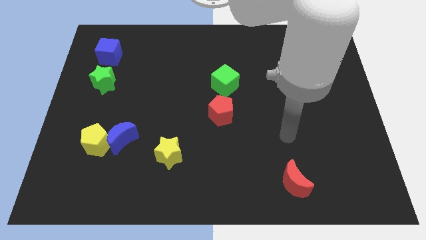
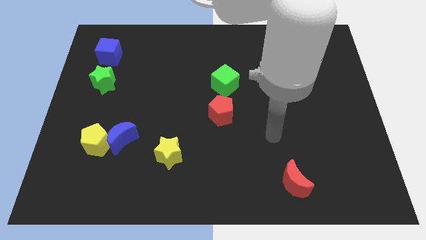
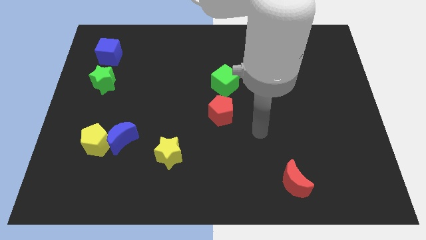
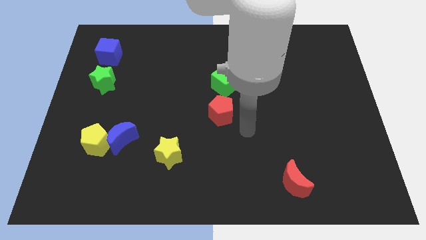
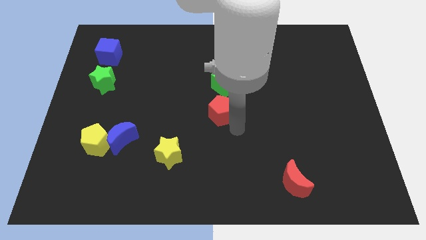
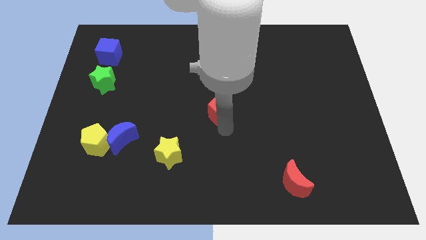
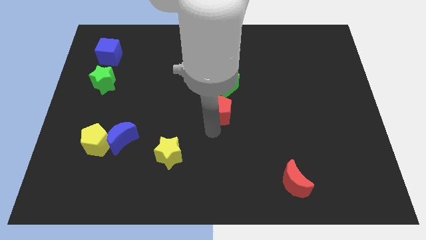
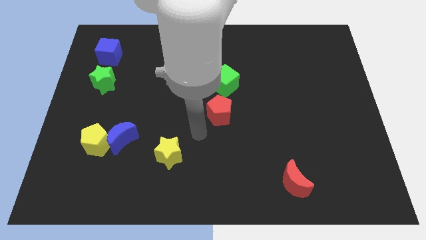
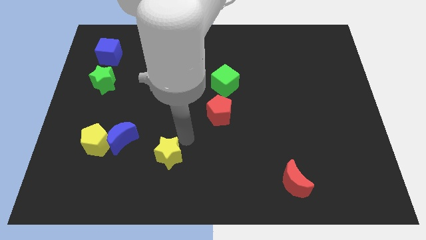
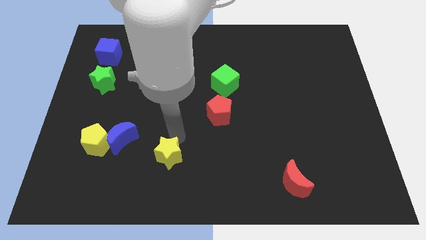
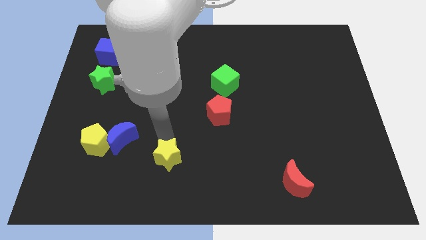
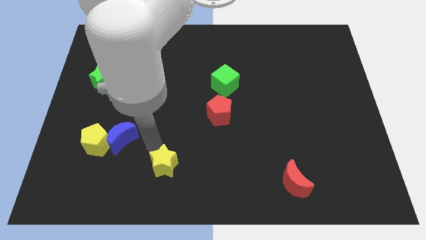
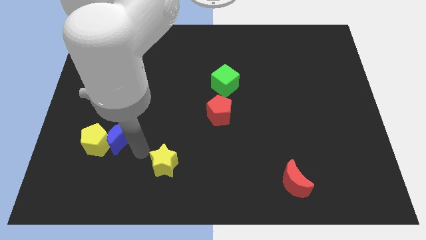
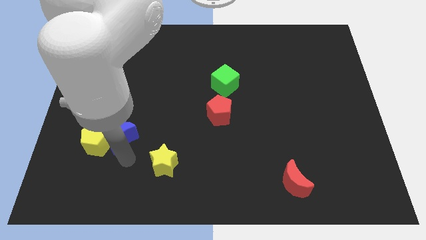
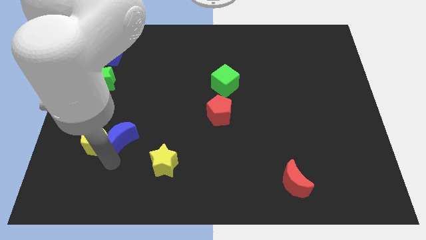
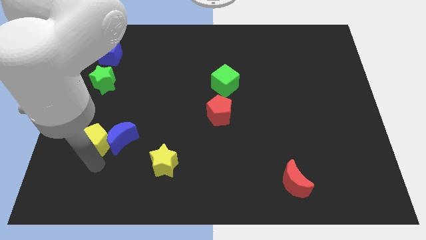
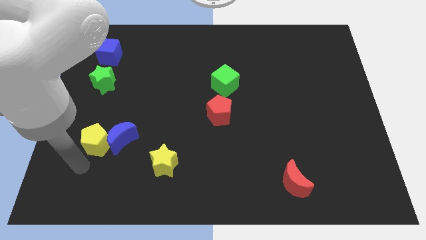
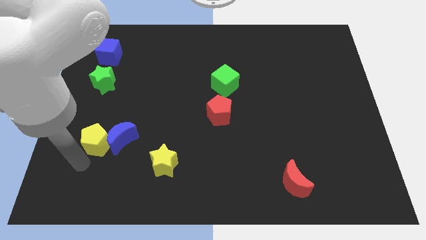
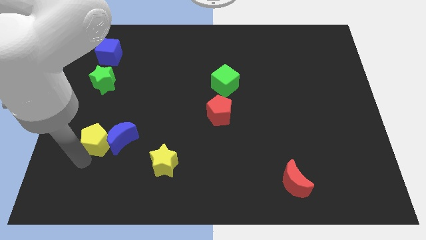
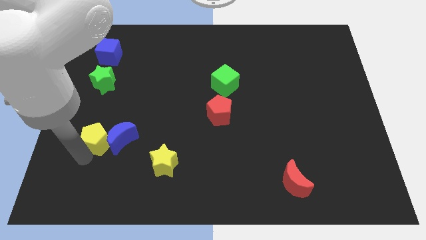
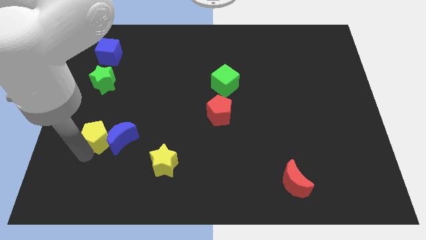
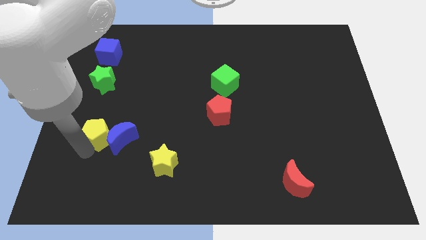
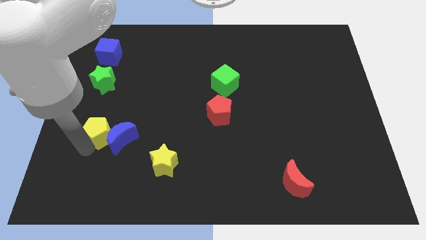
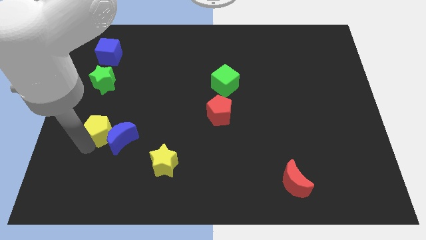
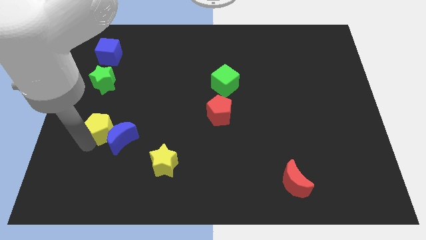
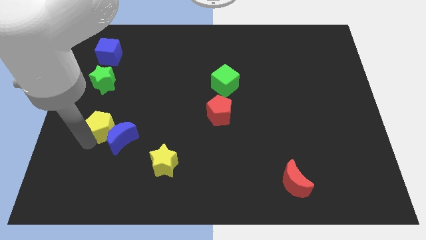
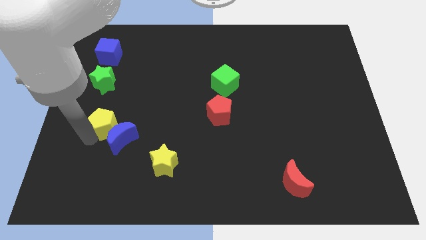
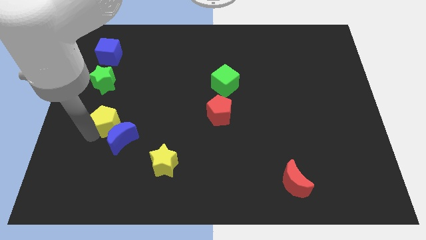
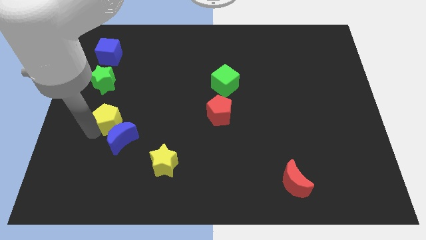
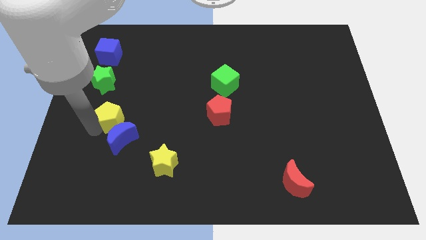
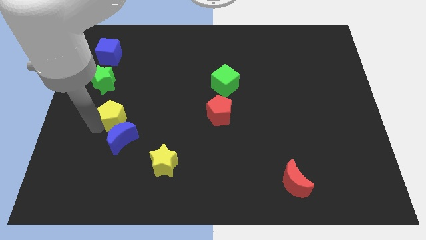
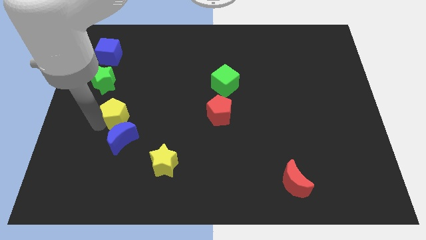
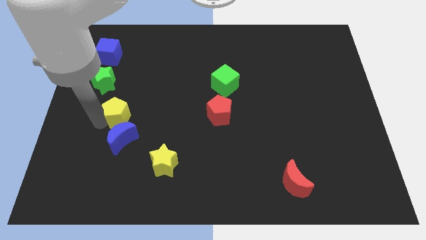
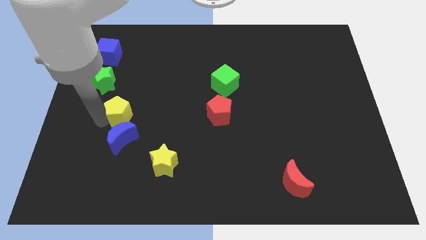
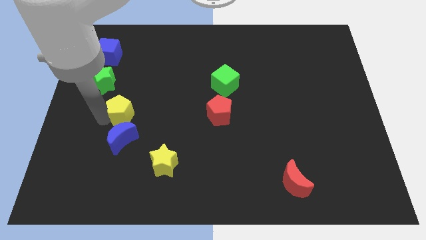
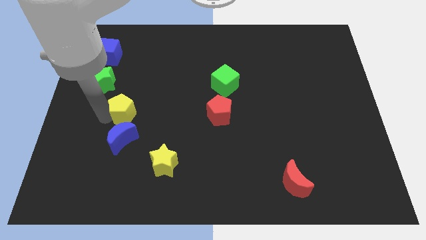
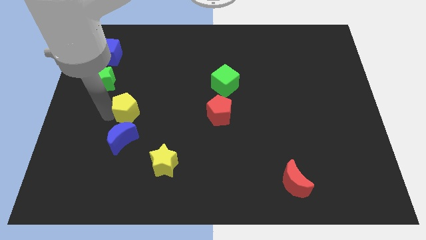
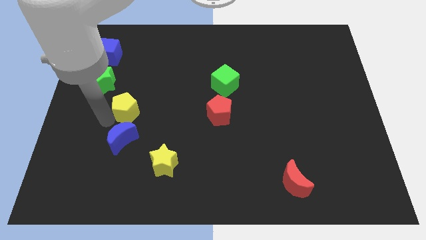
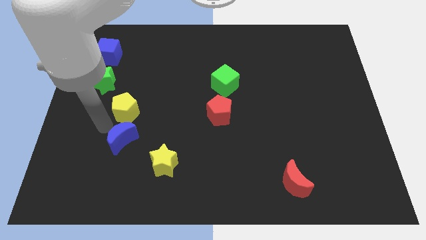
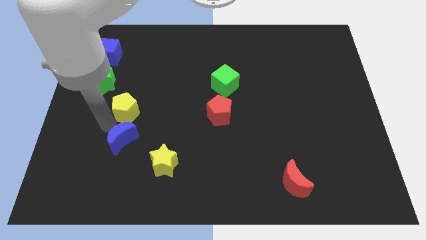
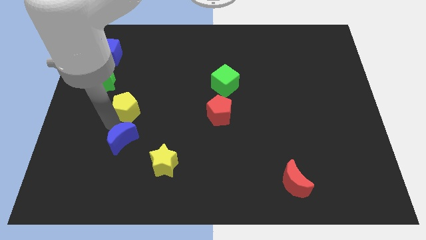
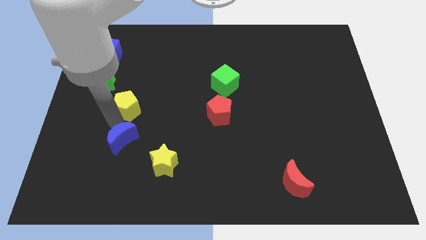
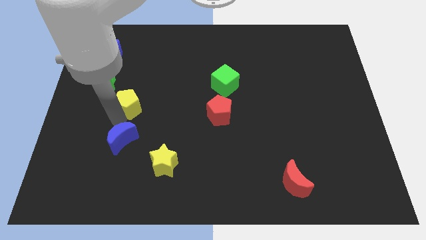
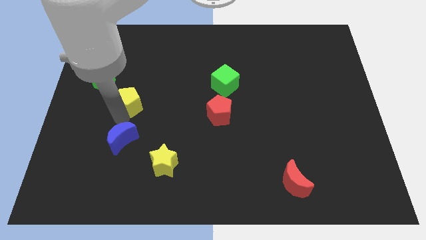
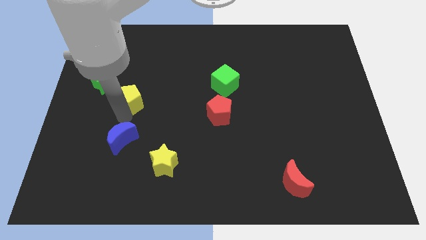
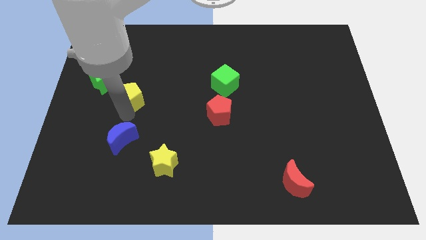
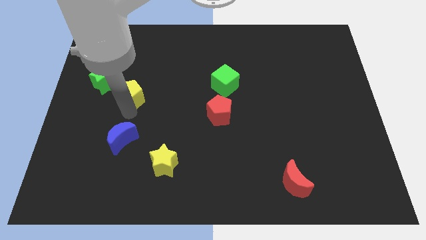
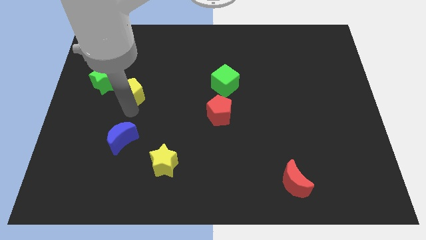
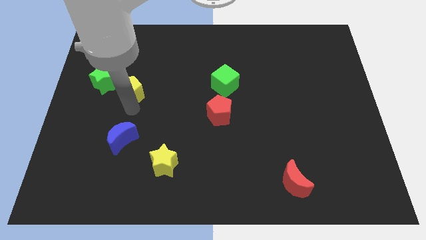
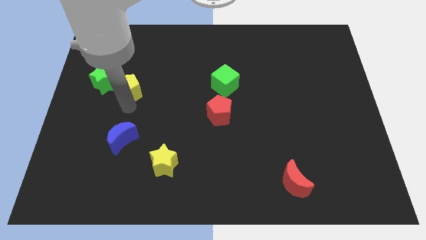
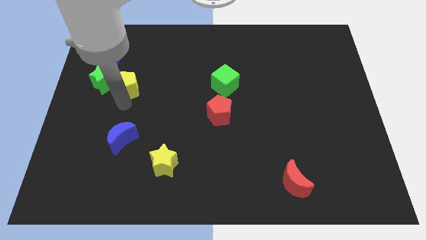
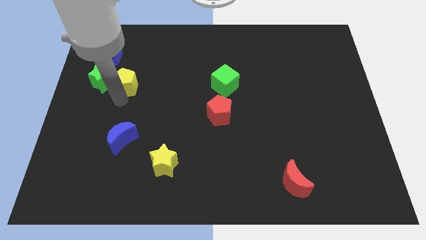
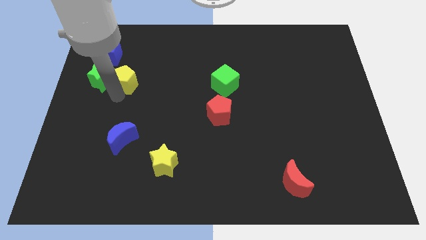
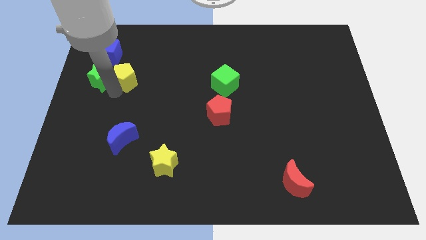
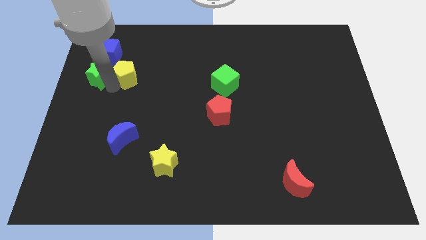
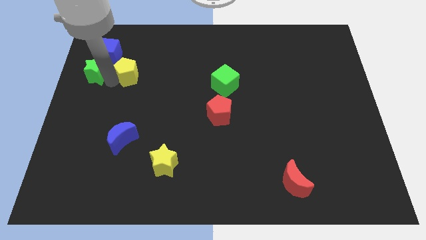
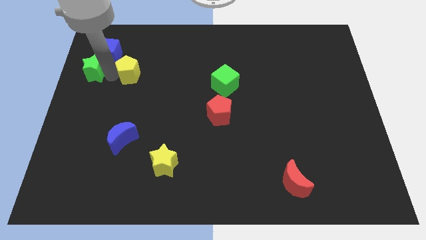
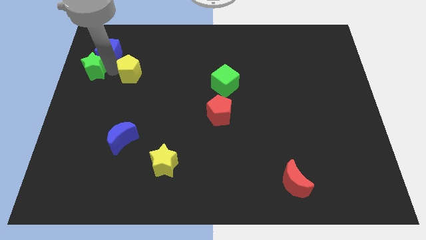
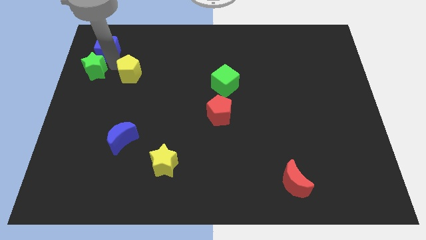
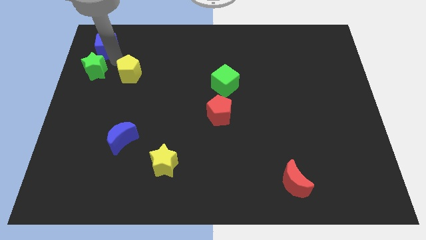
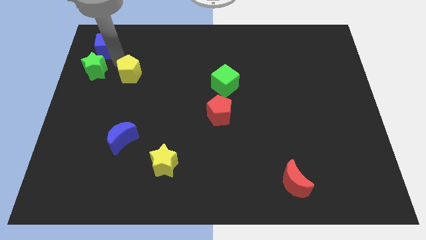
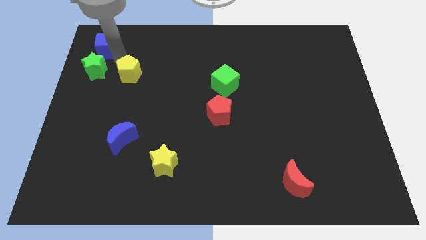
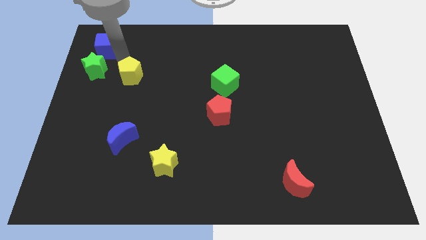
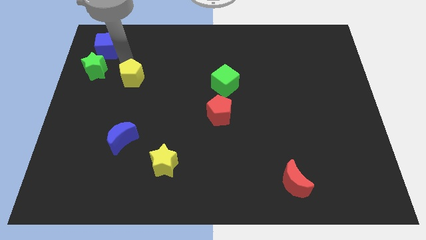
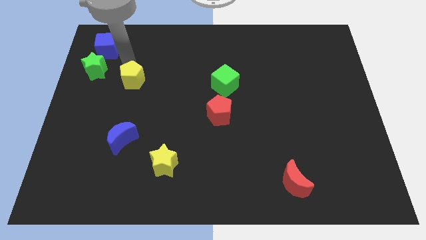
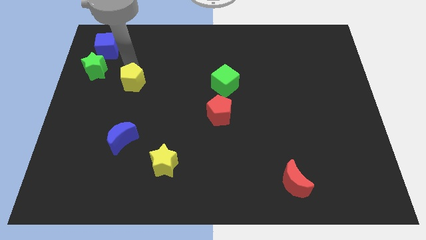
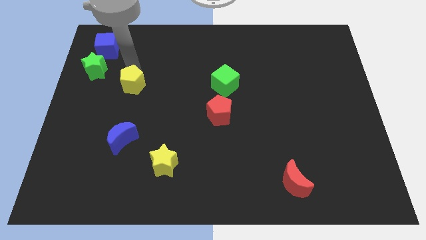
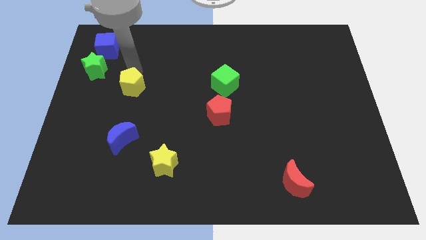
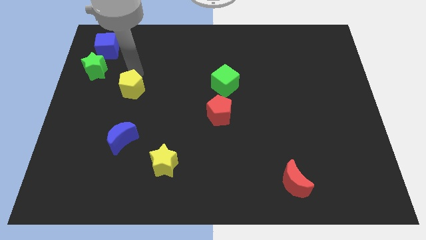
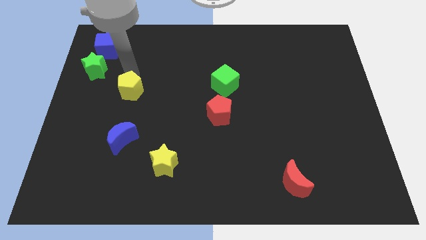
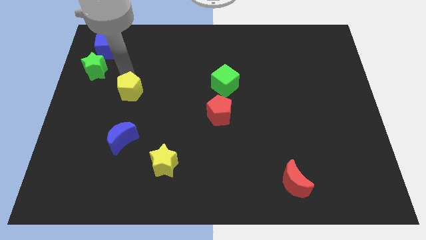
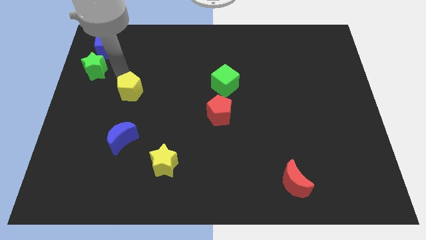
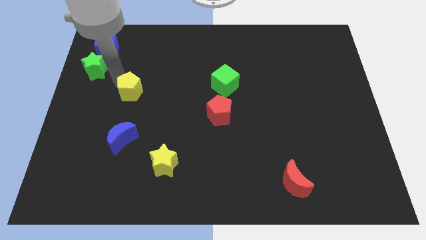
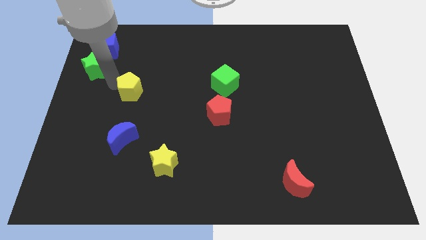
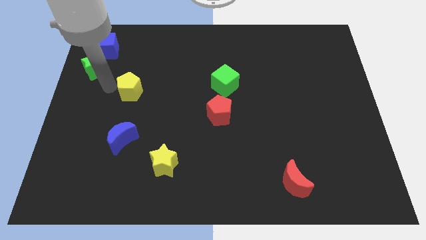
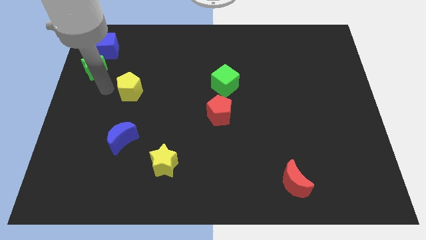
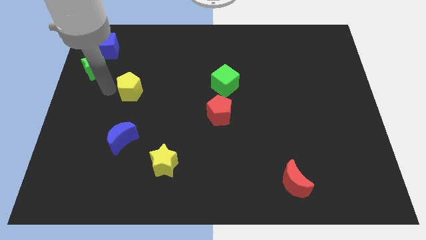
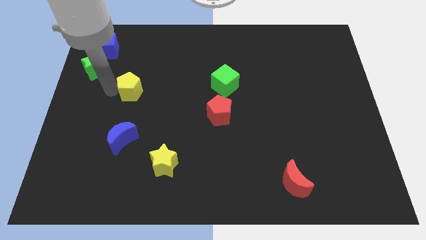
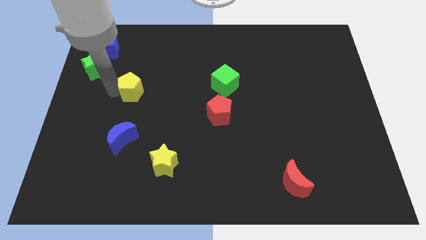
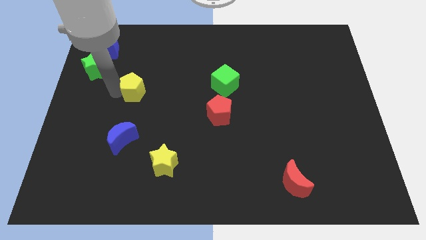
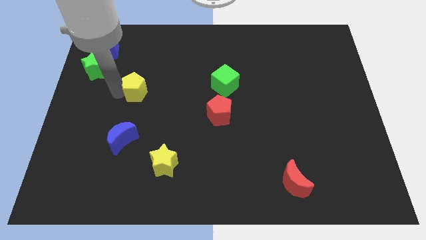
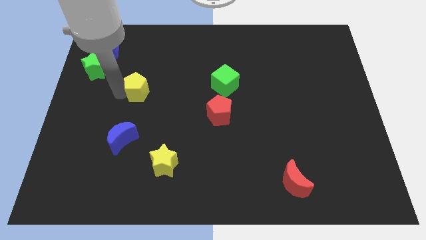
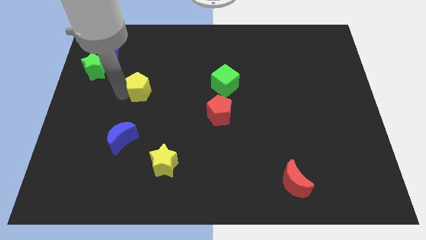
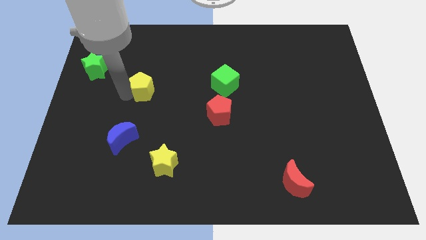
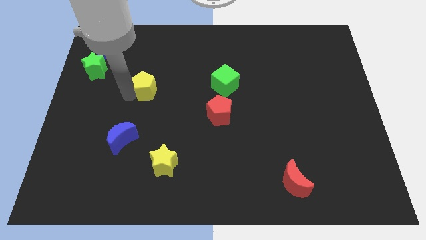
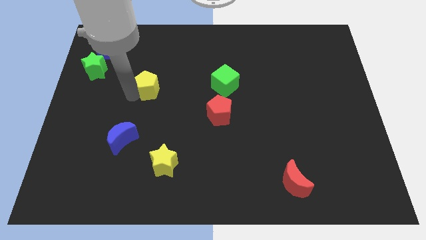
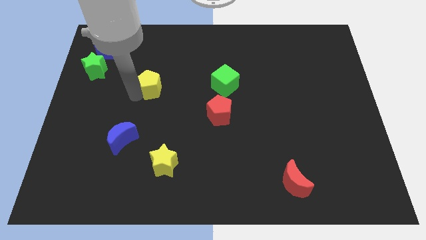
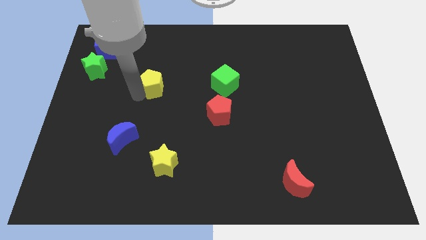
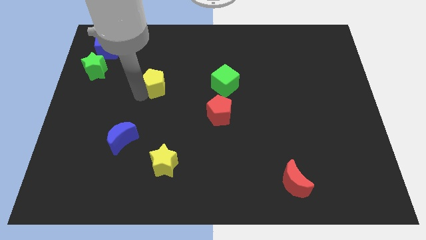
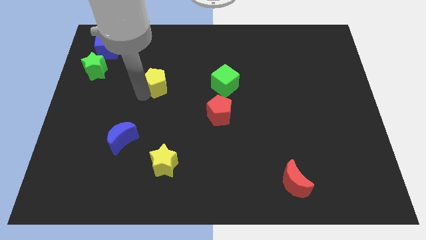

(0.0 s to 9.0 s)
push the yellow pentagon up and right
